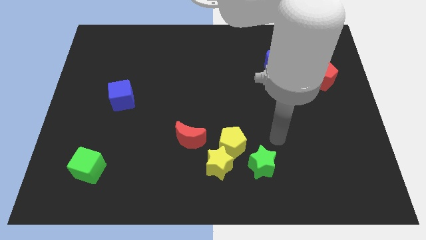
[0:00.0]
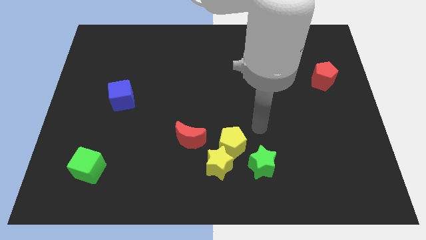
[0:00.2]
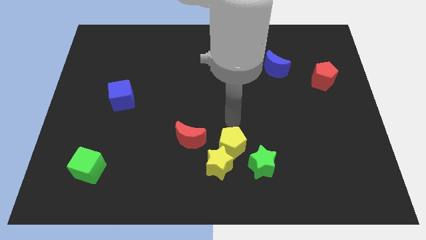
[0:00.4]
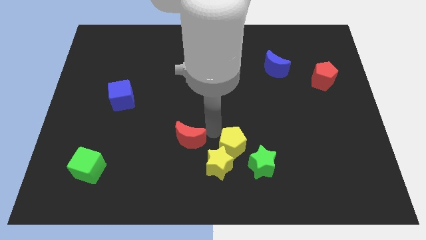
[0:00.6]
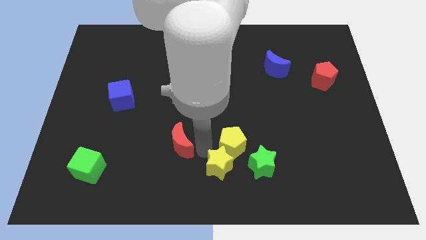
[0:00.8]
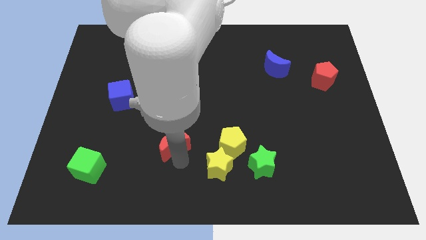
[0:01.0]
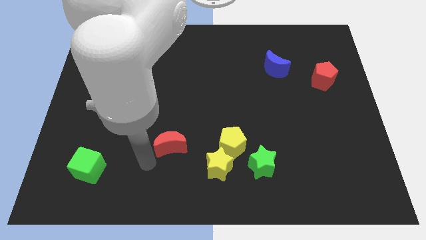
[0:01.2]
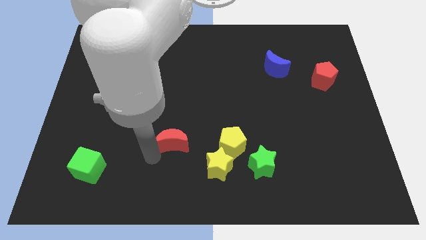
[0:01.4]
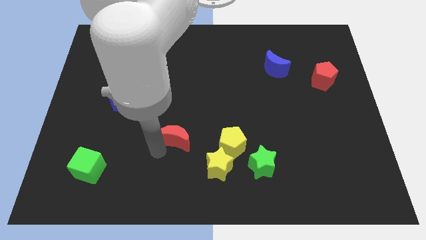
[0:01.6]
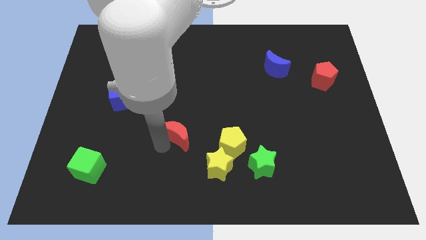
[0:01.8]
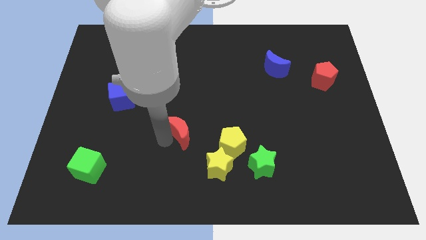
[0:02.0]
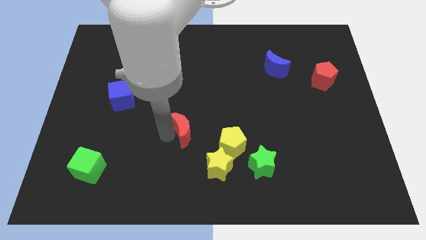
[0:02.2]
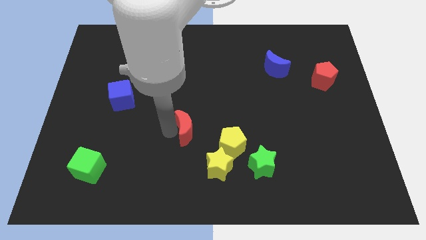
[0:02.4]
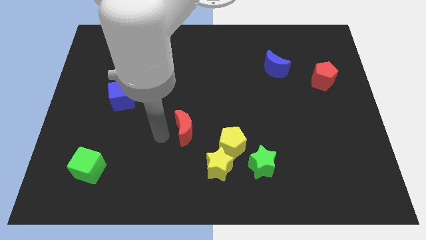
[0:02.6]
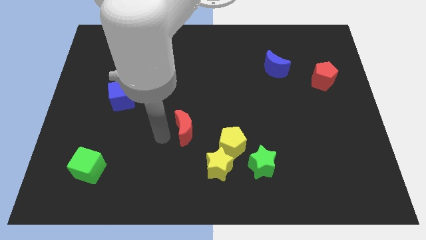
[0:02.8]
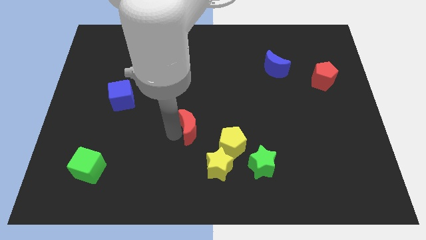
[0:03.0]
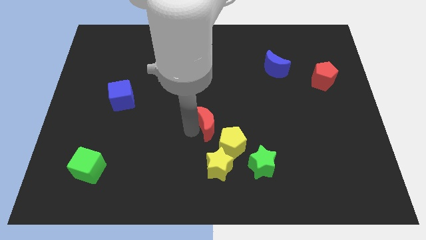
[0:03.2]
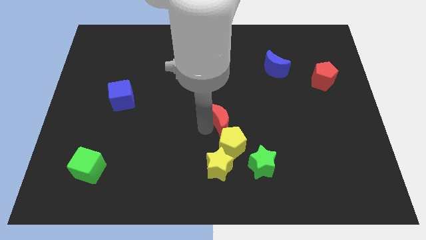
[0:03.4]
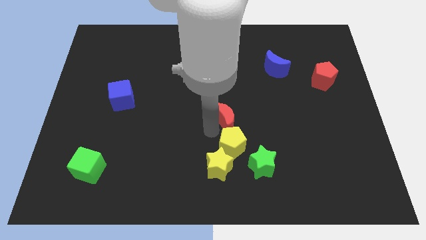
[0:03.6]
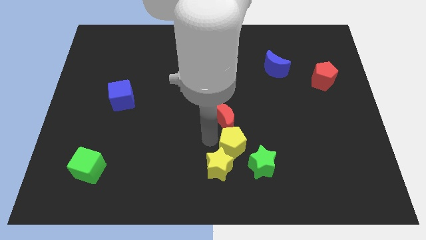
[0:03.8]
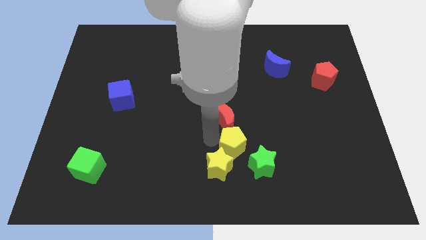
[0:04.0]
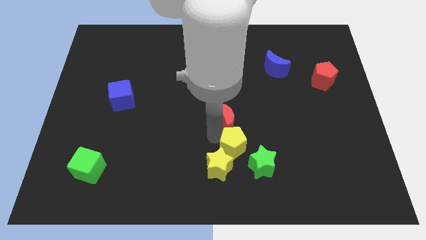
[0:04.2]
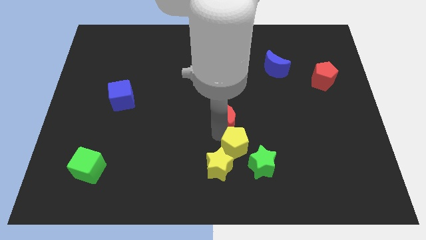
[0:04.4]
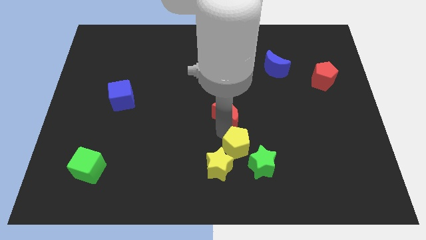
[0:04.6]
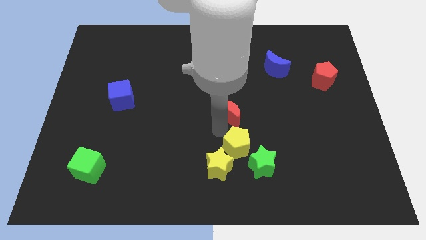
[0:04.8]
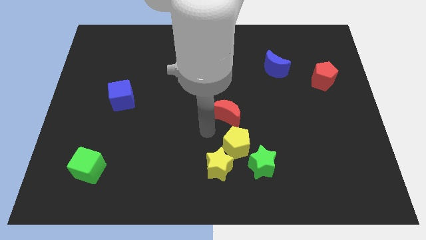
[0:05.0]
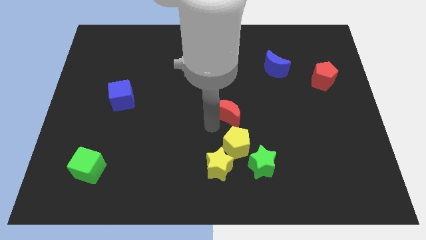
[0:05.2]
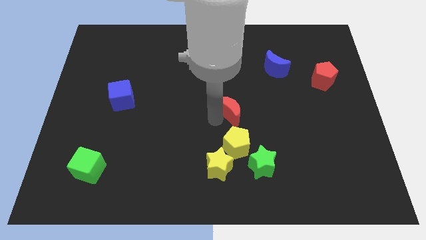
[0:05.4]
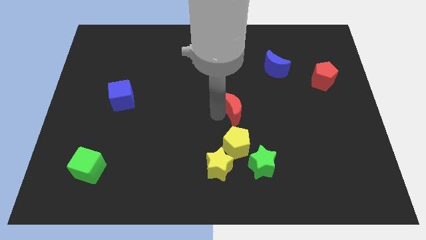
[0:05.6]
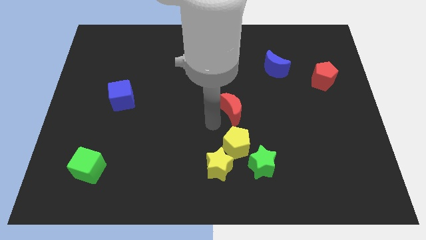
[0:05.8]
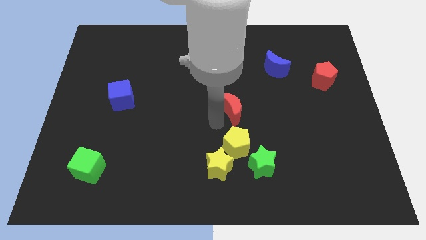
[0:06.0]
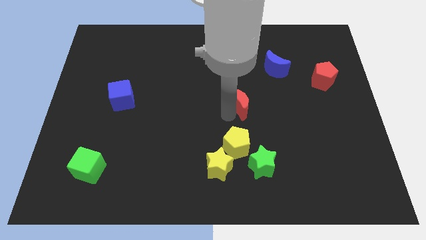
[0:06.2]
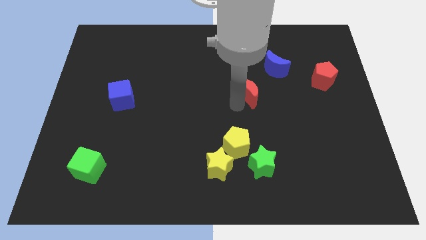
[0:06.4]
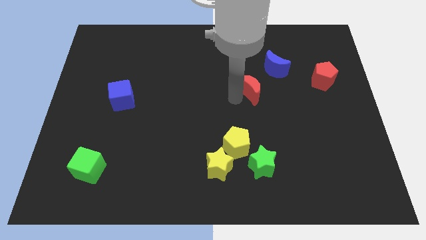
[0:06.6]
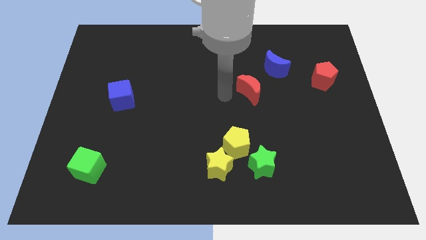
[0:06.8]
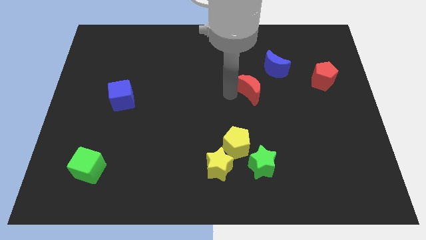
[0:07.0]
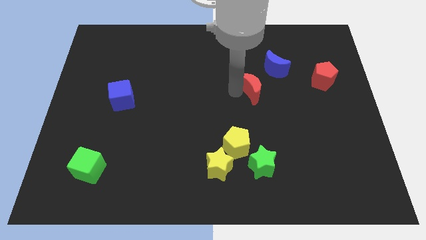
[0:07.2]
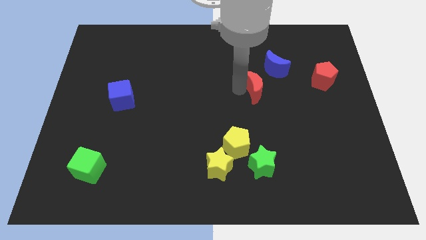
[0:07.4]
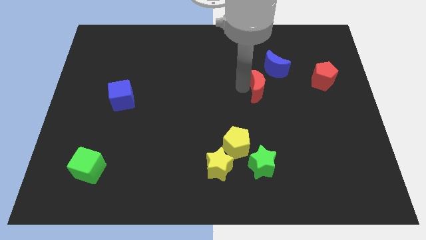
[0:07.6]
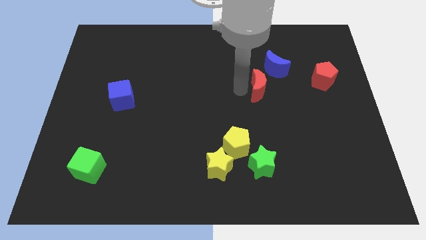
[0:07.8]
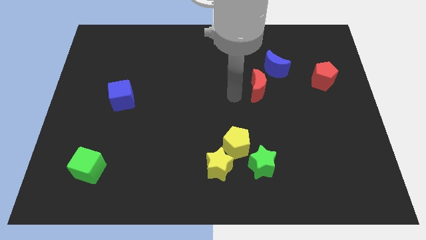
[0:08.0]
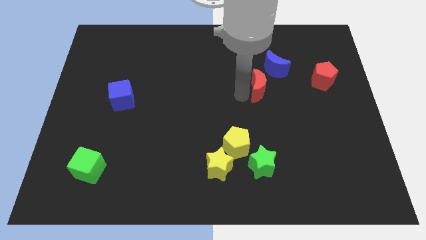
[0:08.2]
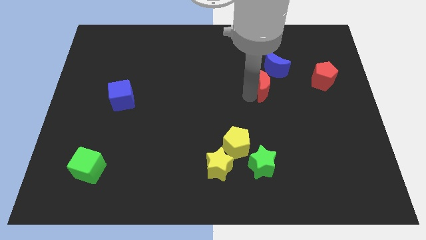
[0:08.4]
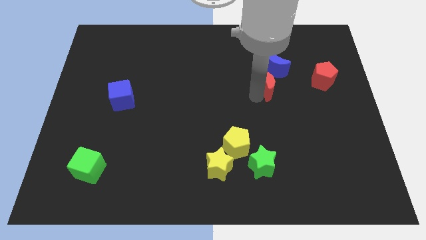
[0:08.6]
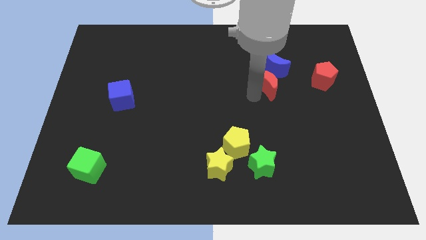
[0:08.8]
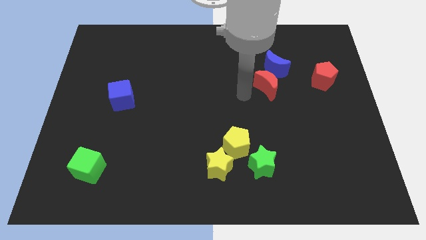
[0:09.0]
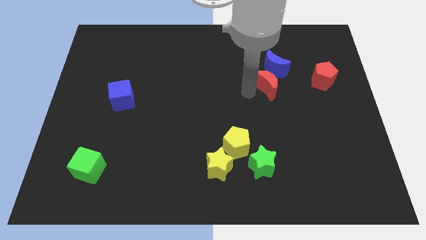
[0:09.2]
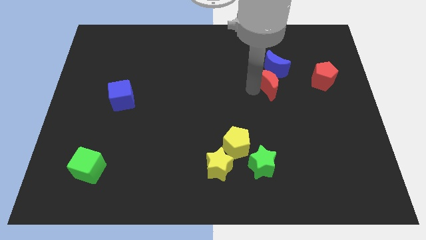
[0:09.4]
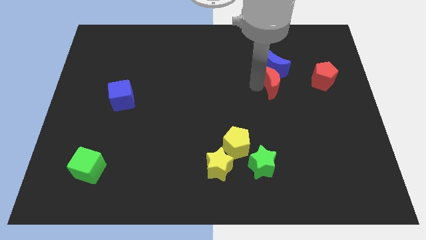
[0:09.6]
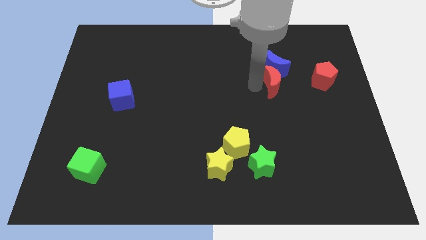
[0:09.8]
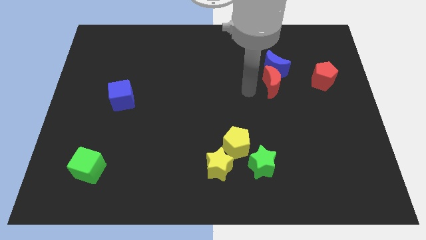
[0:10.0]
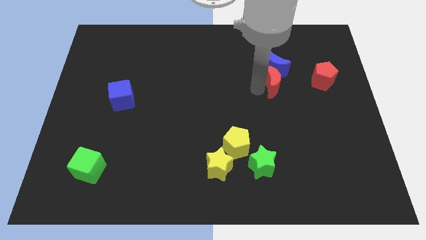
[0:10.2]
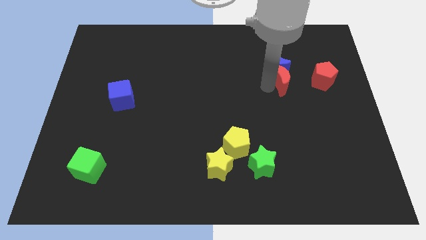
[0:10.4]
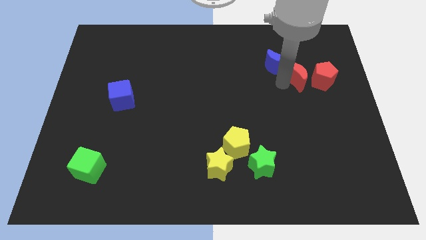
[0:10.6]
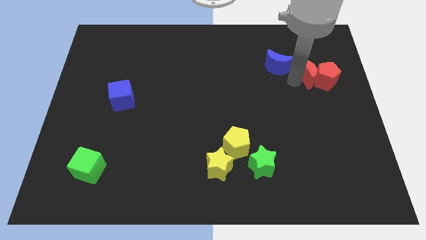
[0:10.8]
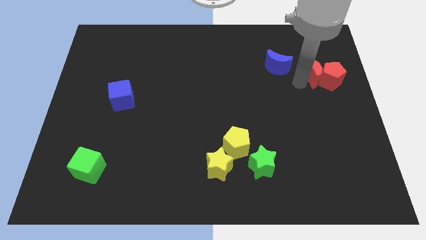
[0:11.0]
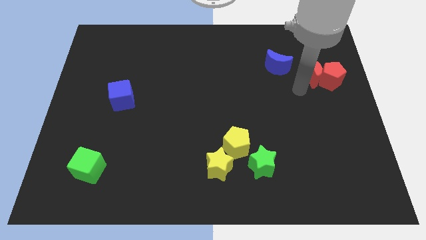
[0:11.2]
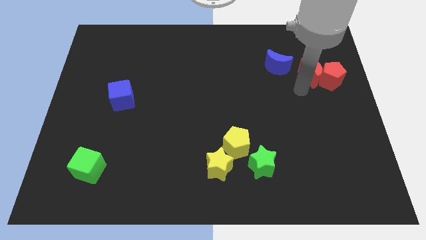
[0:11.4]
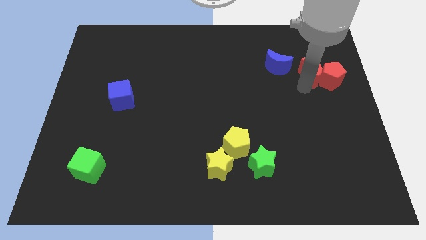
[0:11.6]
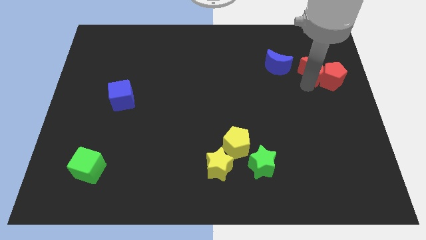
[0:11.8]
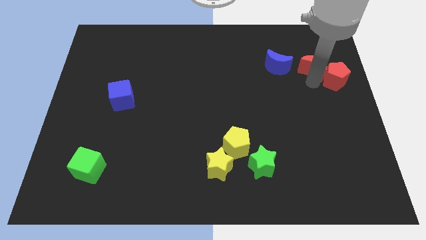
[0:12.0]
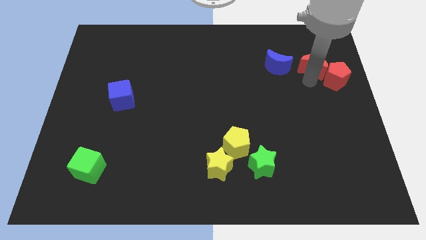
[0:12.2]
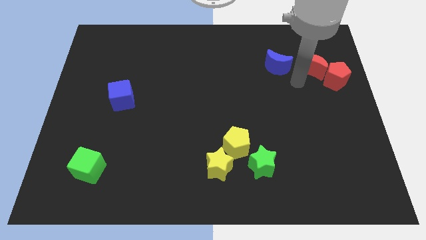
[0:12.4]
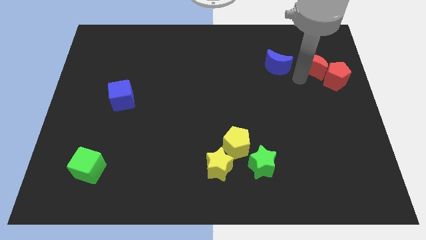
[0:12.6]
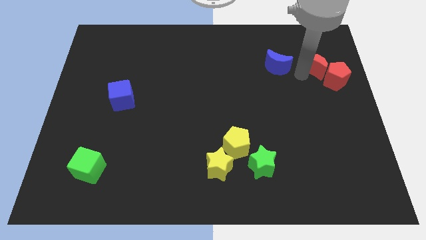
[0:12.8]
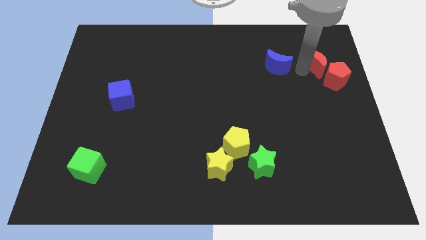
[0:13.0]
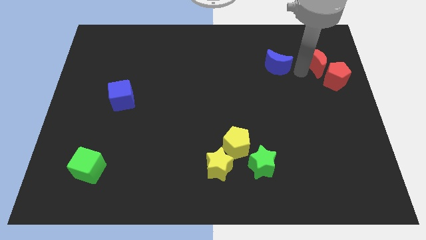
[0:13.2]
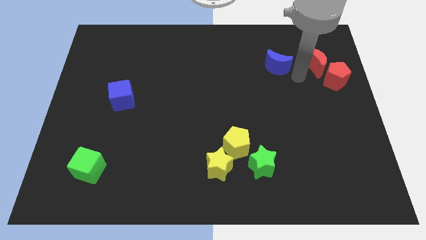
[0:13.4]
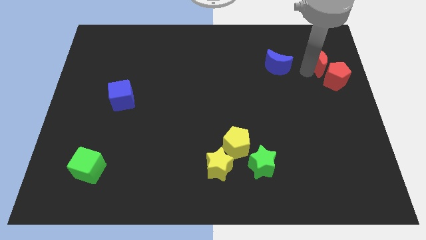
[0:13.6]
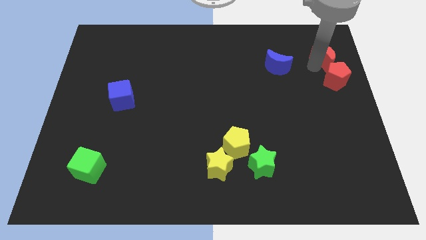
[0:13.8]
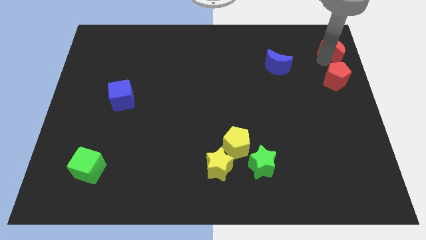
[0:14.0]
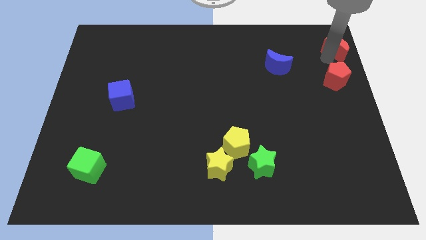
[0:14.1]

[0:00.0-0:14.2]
push the red moon to the upper right corner
